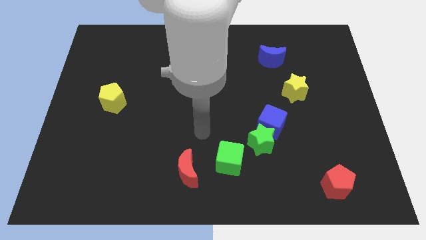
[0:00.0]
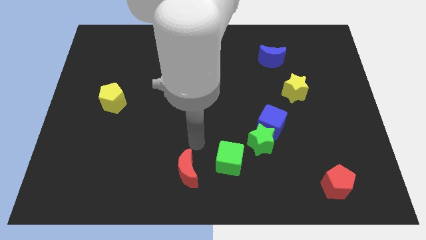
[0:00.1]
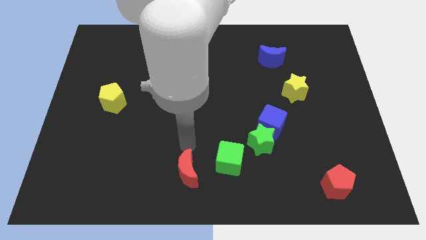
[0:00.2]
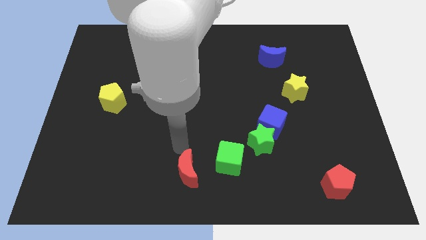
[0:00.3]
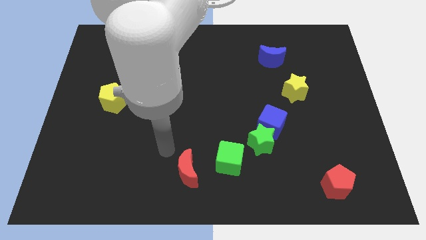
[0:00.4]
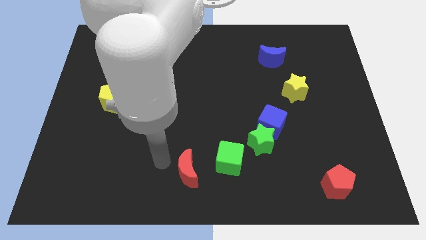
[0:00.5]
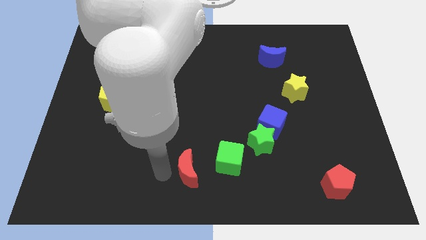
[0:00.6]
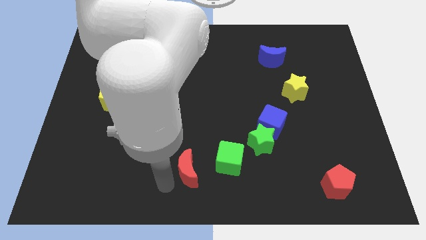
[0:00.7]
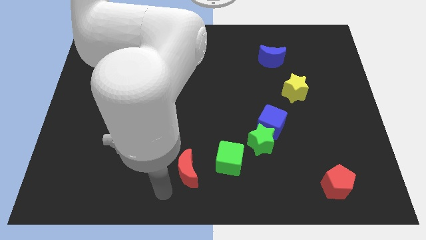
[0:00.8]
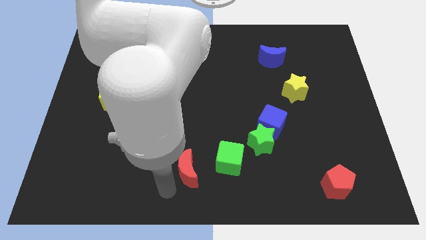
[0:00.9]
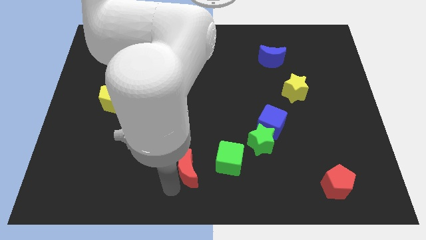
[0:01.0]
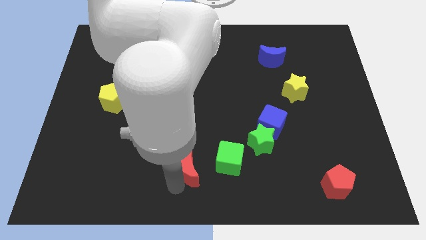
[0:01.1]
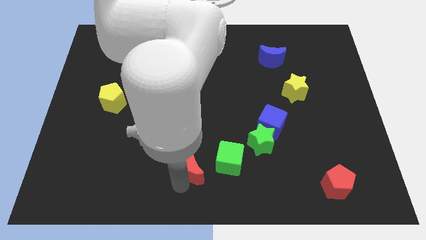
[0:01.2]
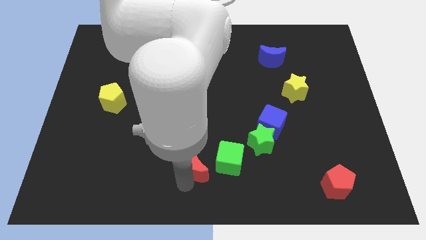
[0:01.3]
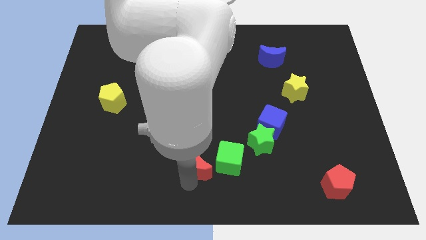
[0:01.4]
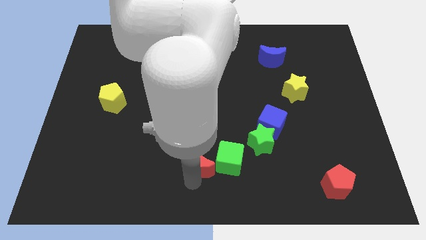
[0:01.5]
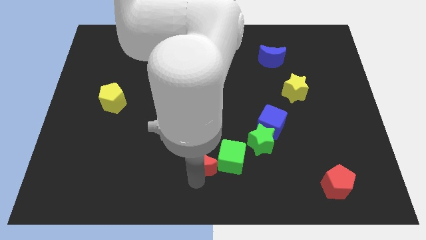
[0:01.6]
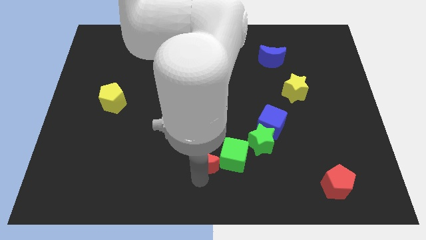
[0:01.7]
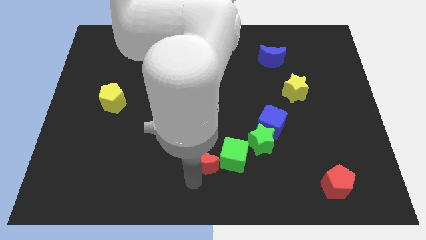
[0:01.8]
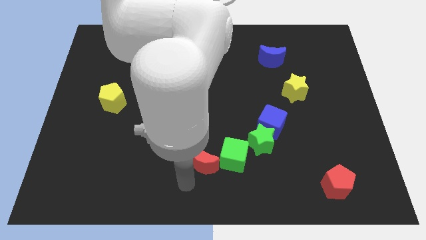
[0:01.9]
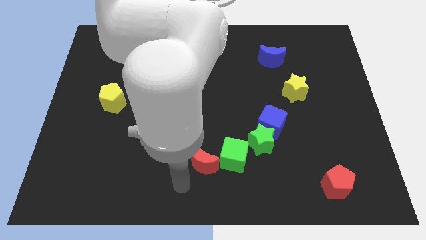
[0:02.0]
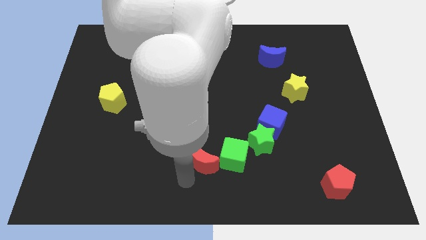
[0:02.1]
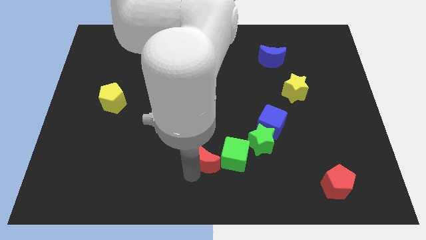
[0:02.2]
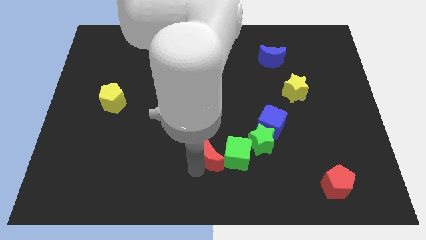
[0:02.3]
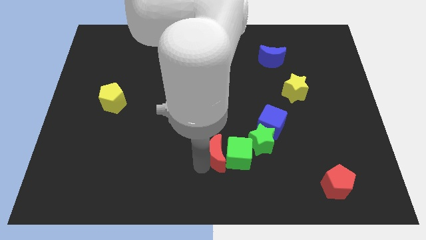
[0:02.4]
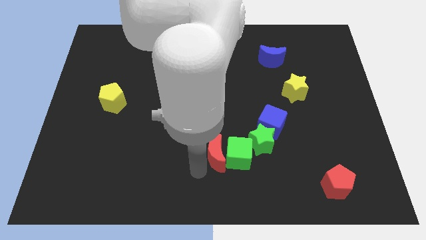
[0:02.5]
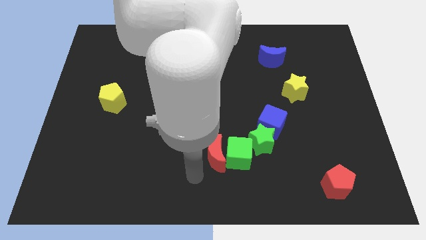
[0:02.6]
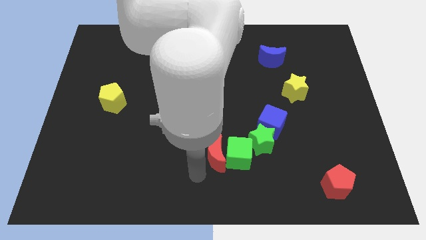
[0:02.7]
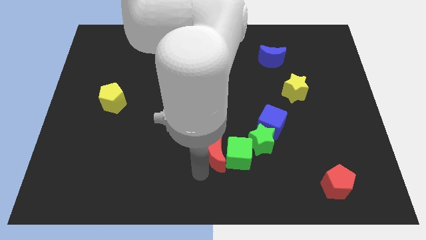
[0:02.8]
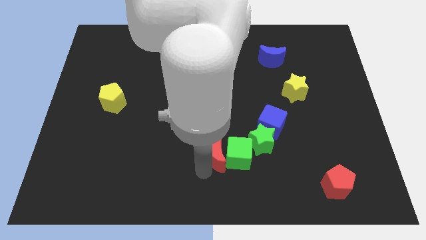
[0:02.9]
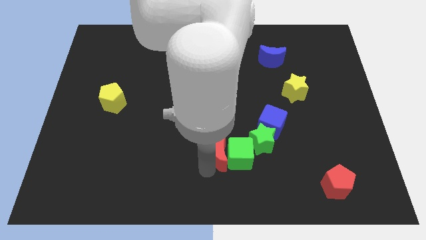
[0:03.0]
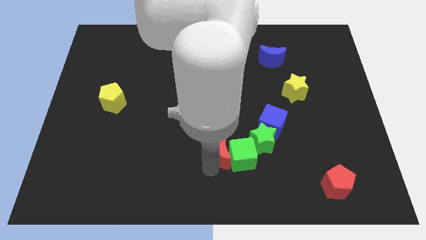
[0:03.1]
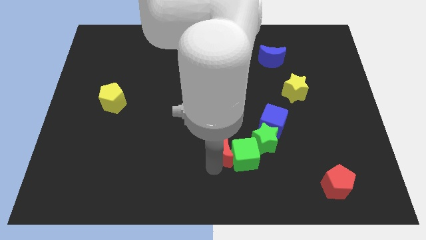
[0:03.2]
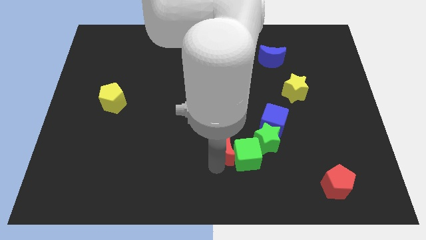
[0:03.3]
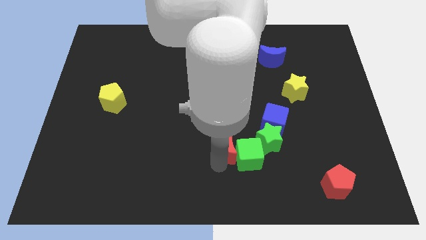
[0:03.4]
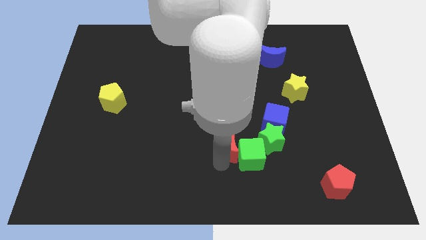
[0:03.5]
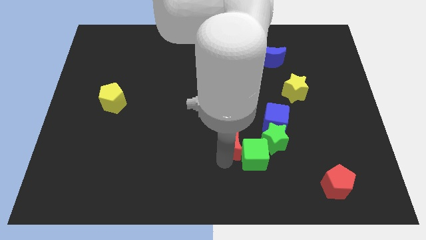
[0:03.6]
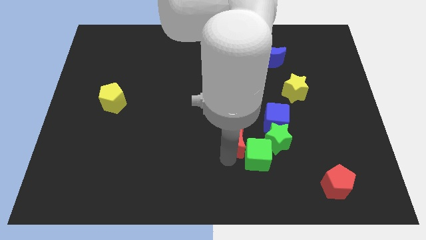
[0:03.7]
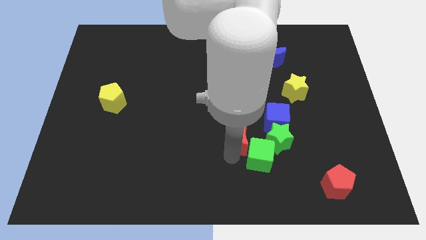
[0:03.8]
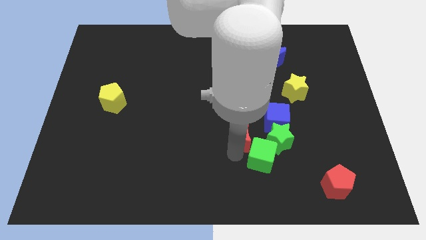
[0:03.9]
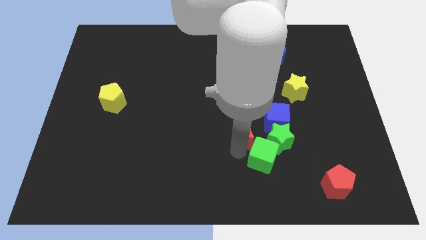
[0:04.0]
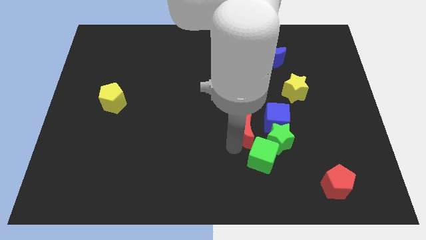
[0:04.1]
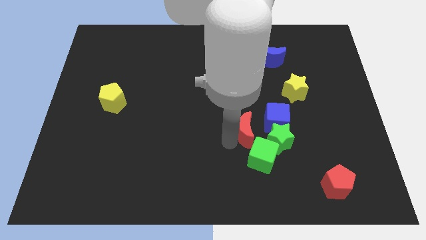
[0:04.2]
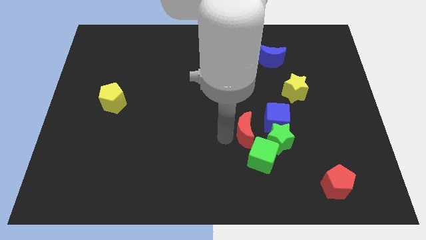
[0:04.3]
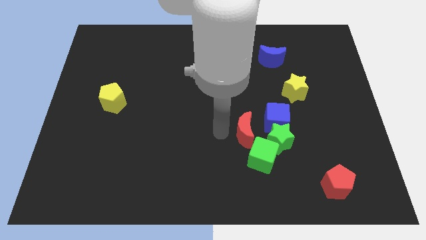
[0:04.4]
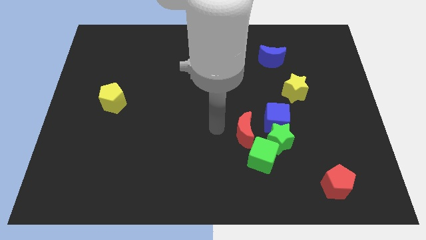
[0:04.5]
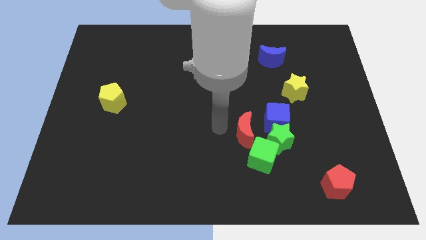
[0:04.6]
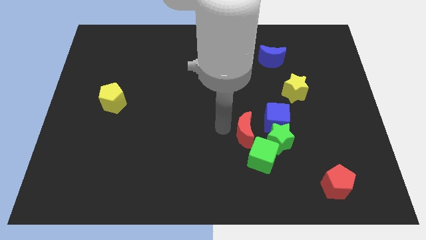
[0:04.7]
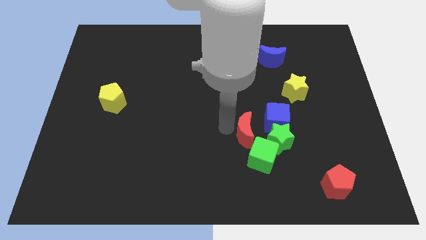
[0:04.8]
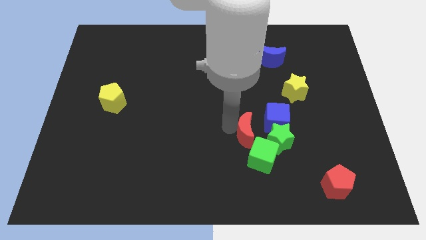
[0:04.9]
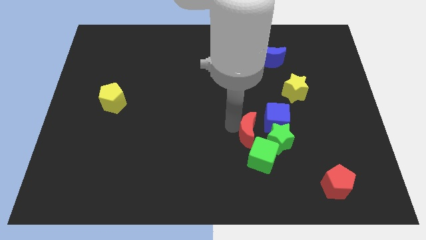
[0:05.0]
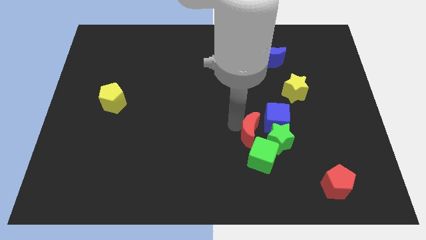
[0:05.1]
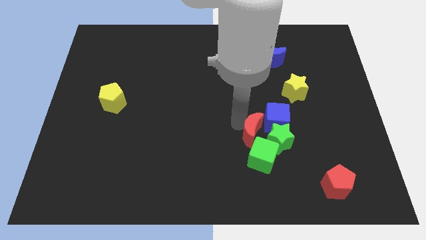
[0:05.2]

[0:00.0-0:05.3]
slide the red moon next to the green star

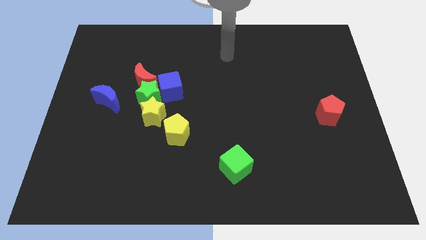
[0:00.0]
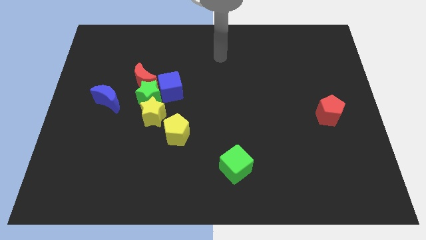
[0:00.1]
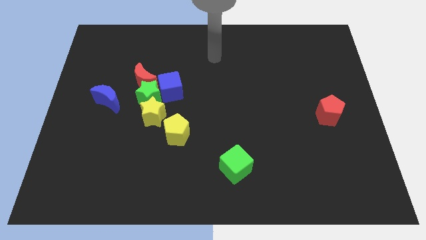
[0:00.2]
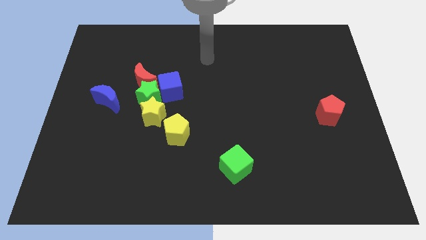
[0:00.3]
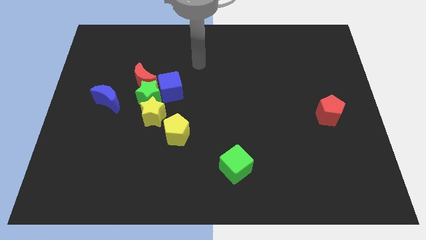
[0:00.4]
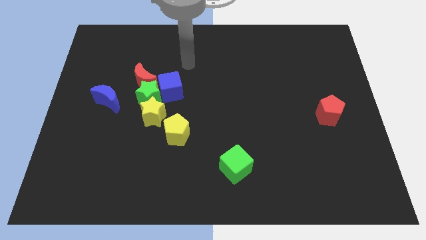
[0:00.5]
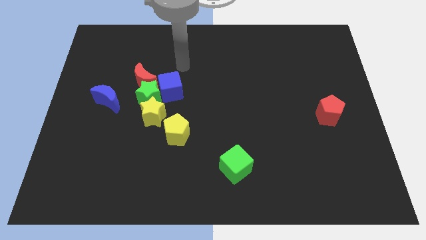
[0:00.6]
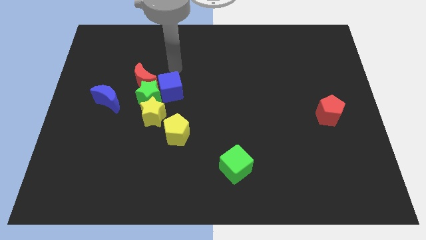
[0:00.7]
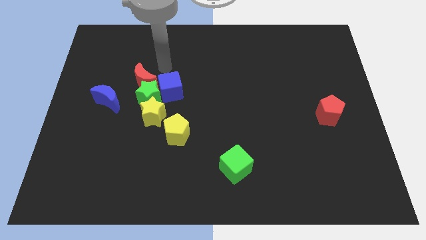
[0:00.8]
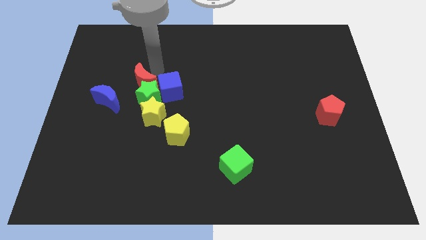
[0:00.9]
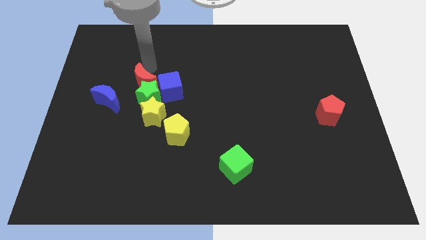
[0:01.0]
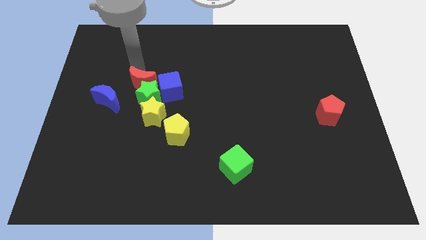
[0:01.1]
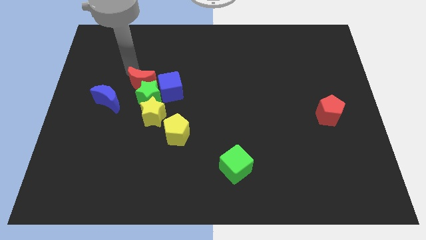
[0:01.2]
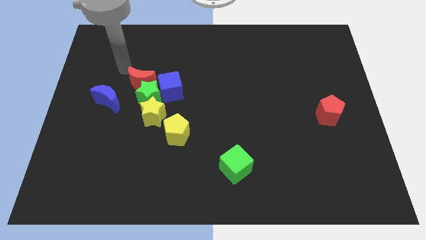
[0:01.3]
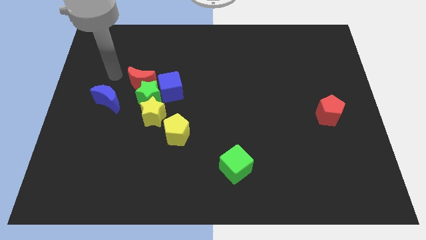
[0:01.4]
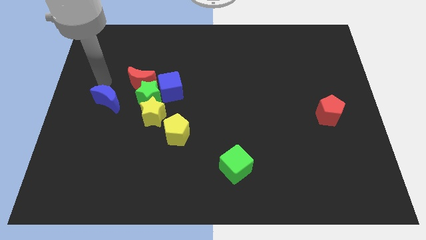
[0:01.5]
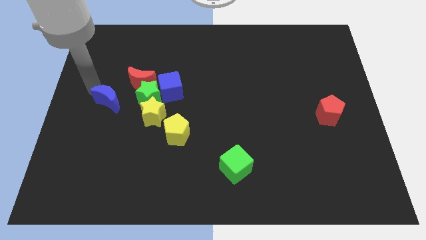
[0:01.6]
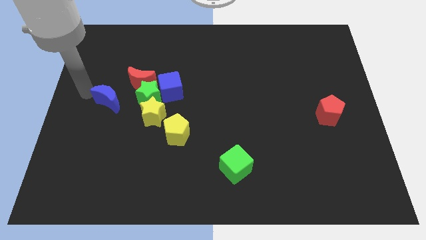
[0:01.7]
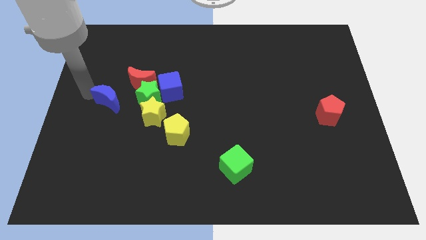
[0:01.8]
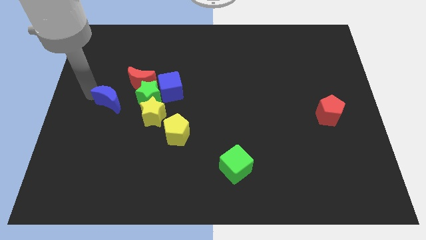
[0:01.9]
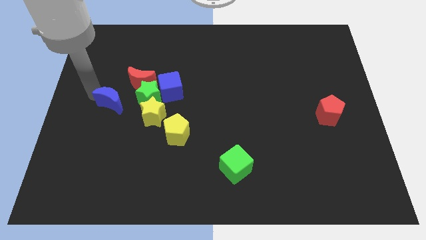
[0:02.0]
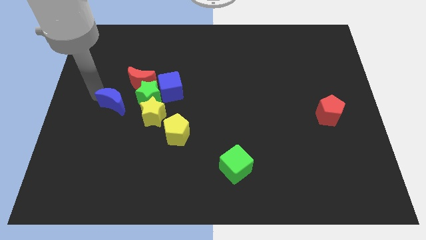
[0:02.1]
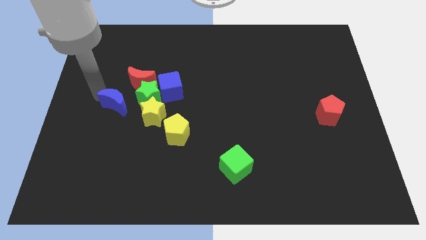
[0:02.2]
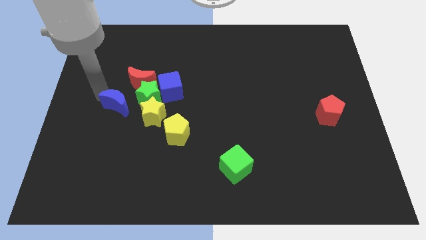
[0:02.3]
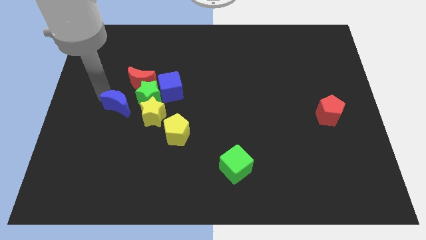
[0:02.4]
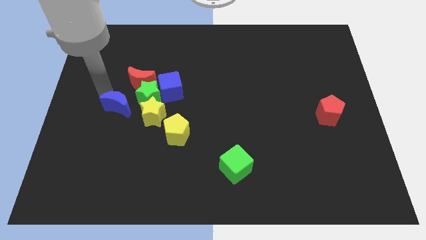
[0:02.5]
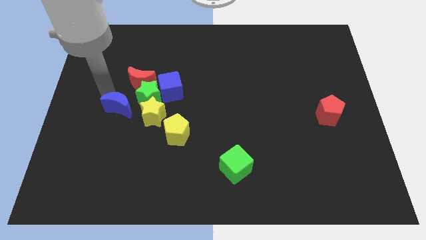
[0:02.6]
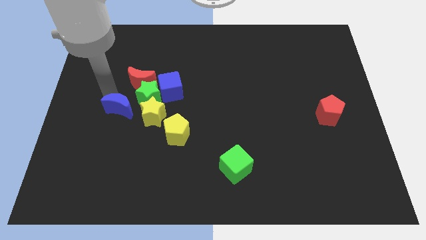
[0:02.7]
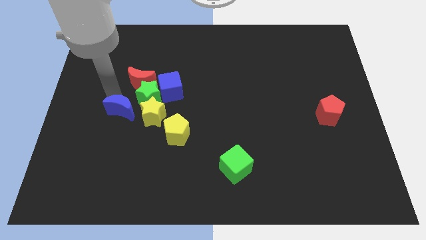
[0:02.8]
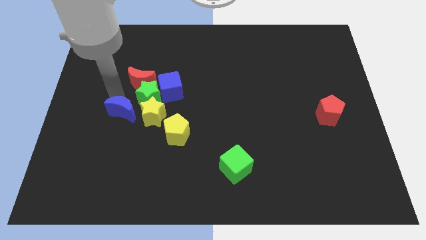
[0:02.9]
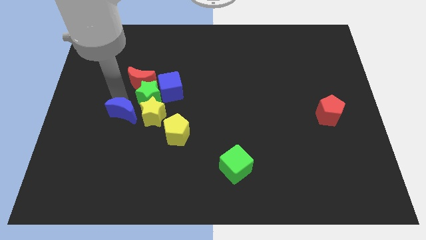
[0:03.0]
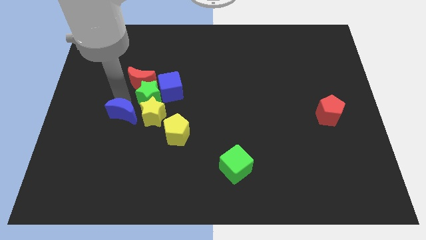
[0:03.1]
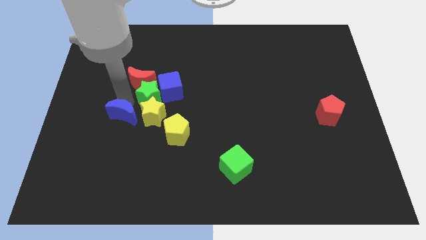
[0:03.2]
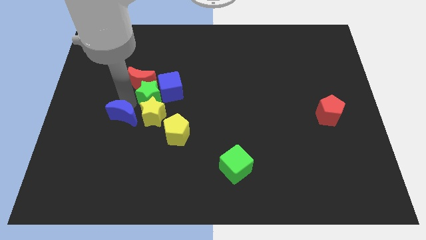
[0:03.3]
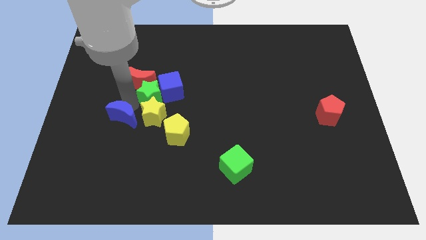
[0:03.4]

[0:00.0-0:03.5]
slide the blue moon to the yellow star
